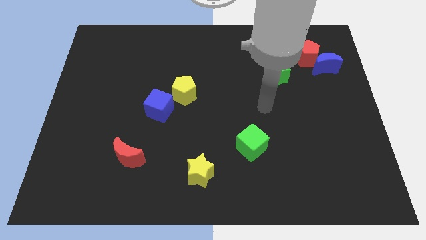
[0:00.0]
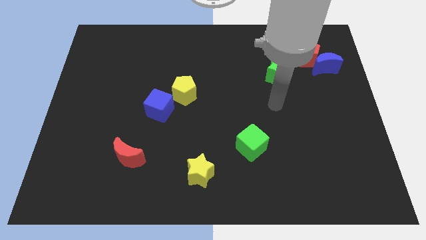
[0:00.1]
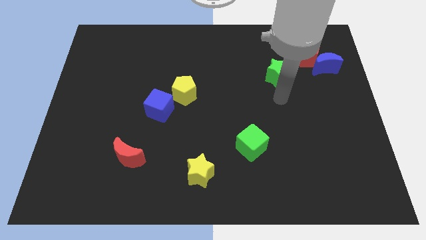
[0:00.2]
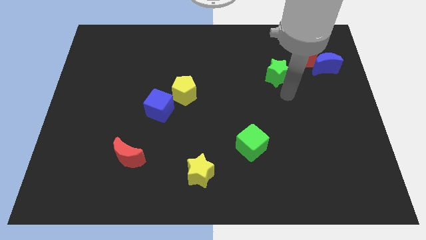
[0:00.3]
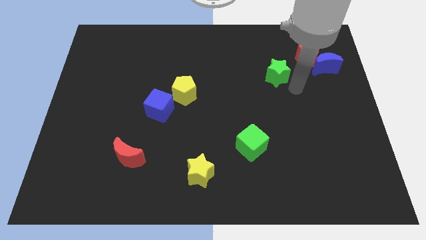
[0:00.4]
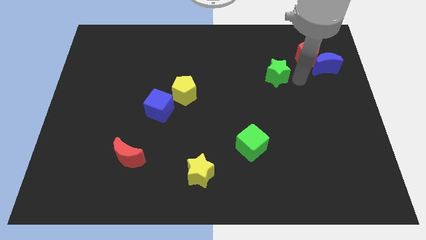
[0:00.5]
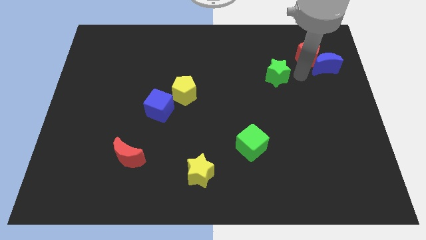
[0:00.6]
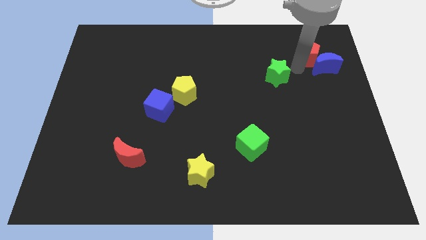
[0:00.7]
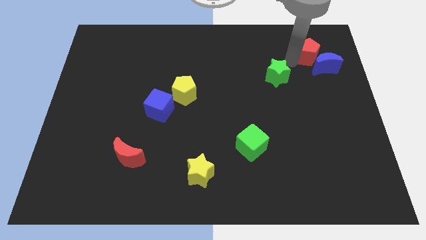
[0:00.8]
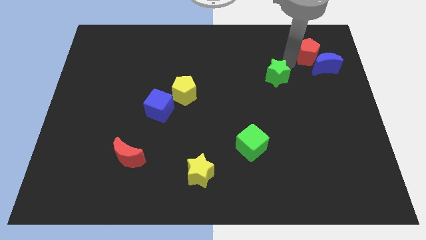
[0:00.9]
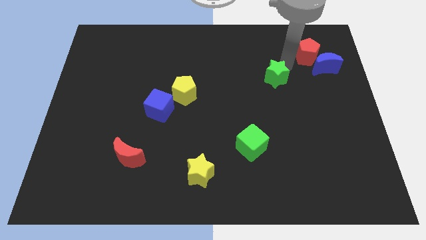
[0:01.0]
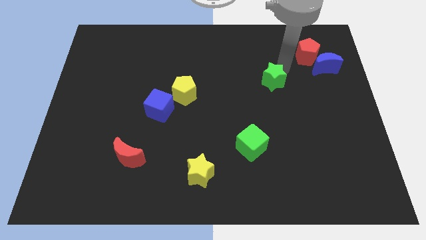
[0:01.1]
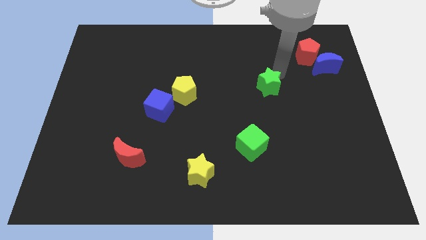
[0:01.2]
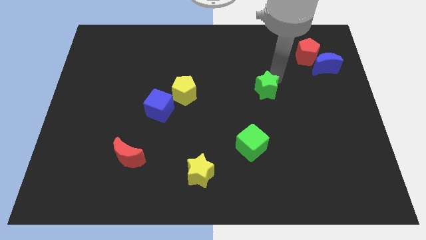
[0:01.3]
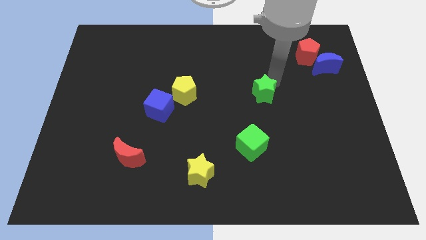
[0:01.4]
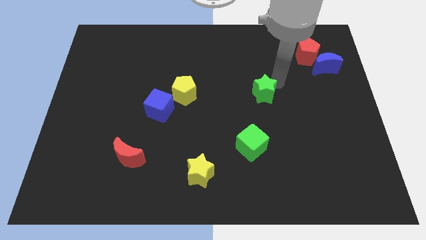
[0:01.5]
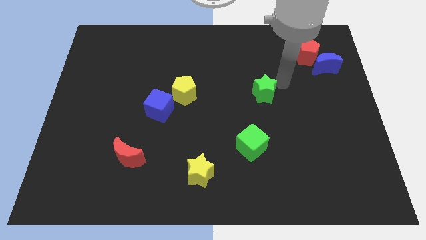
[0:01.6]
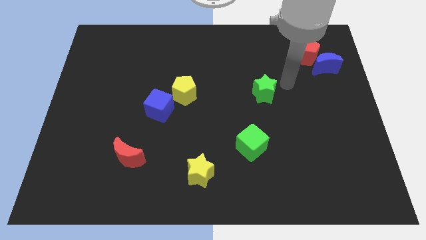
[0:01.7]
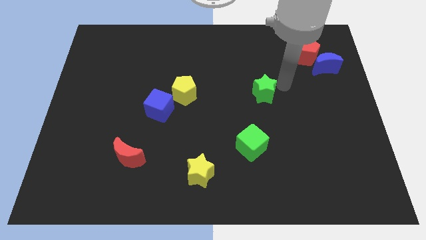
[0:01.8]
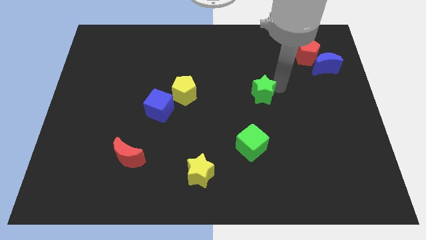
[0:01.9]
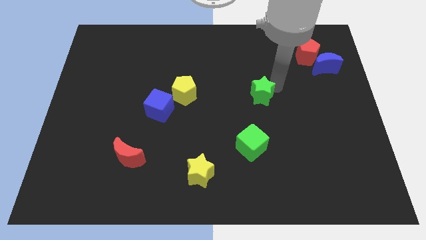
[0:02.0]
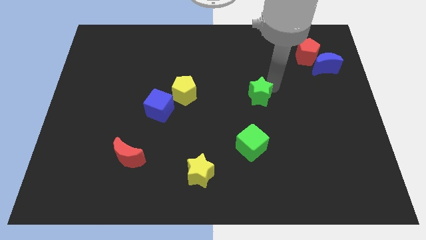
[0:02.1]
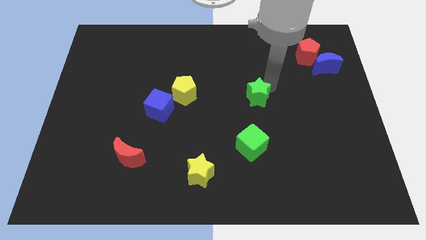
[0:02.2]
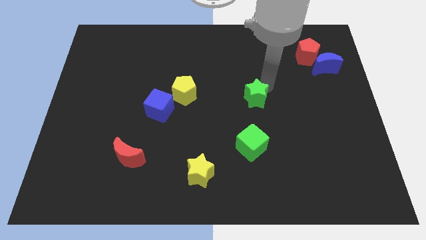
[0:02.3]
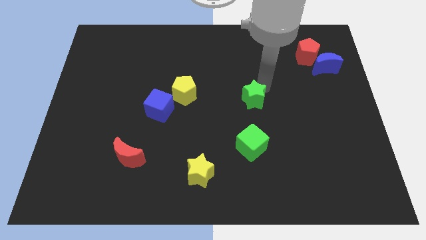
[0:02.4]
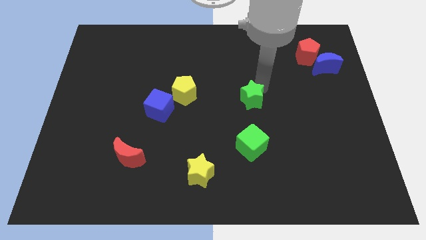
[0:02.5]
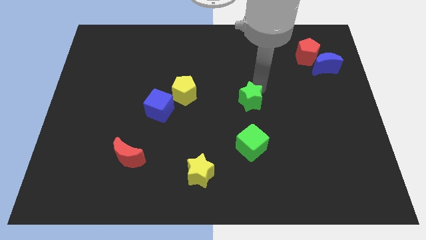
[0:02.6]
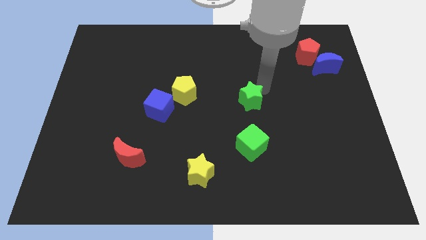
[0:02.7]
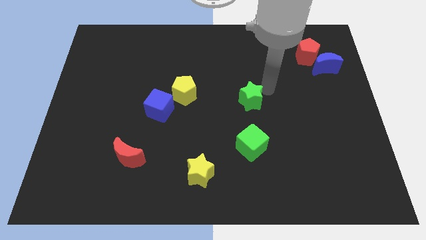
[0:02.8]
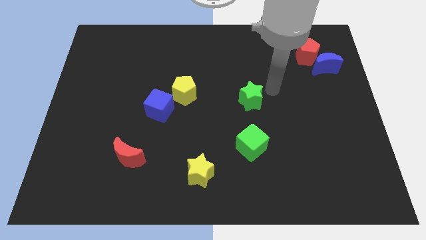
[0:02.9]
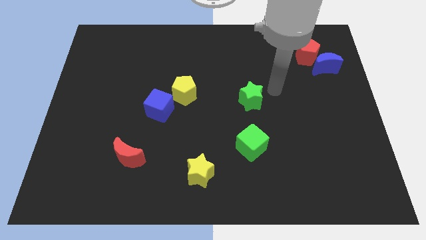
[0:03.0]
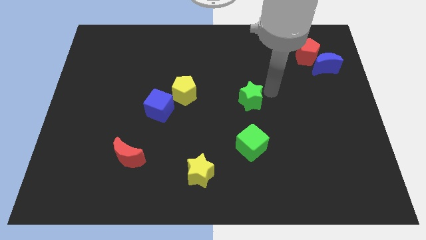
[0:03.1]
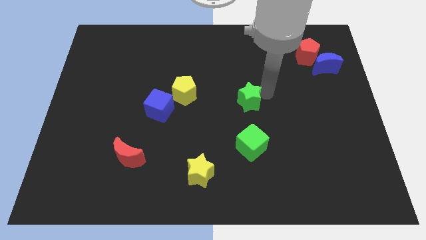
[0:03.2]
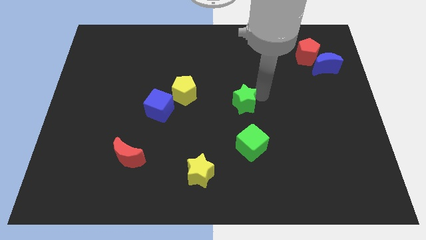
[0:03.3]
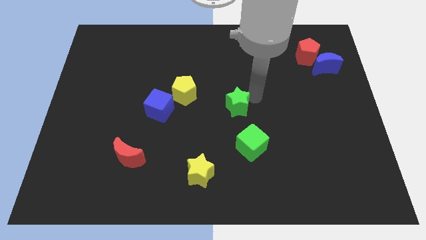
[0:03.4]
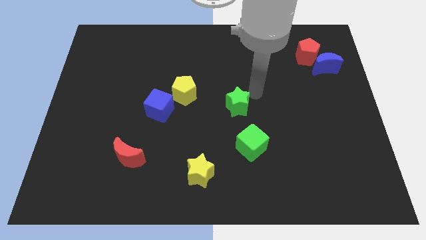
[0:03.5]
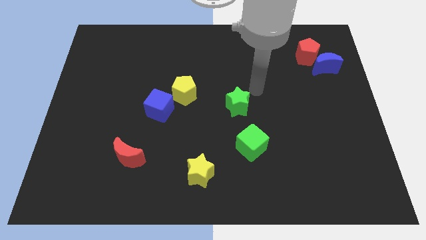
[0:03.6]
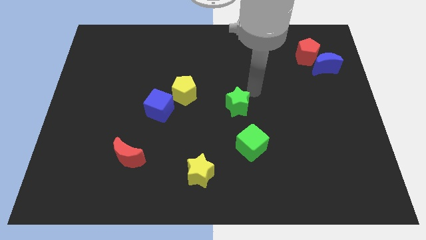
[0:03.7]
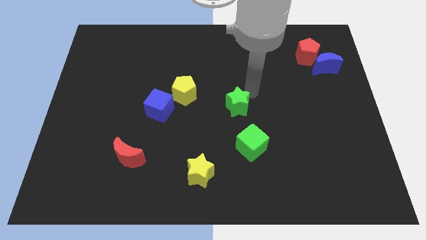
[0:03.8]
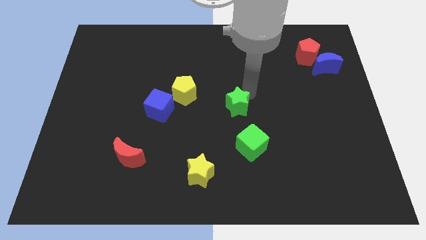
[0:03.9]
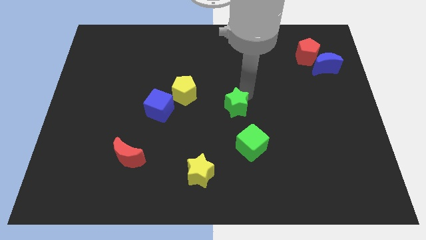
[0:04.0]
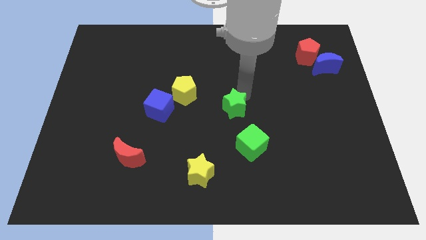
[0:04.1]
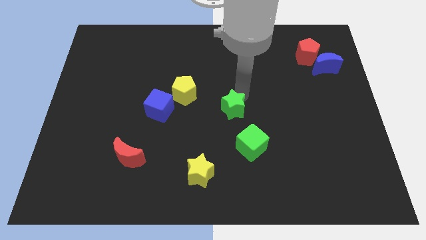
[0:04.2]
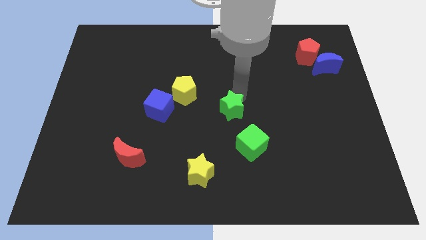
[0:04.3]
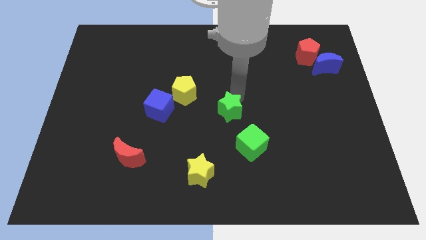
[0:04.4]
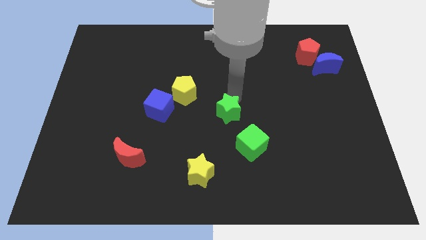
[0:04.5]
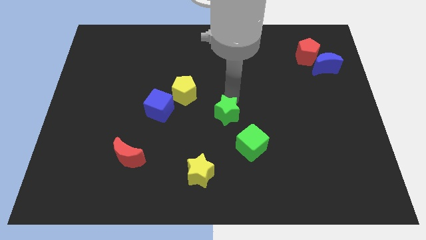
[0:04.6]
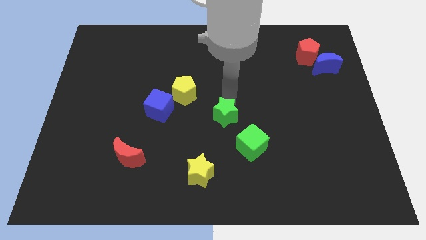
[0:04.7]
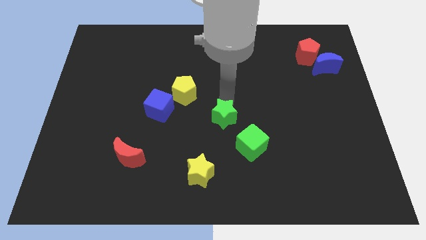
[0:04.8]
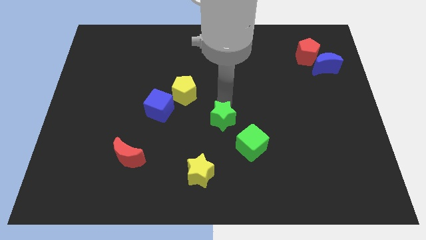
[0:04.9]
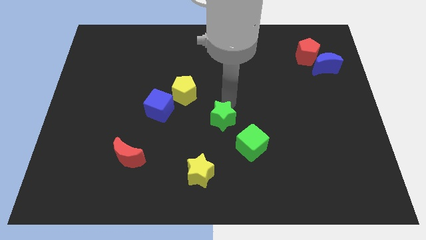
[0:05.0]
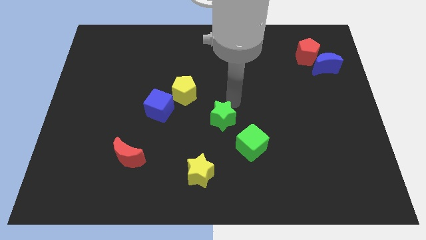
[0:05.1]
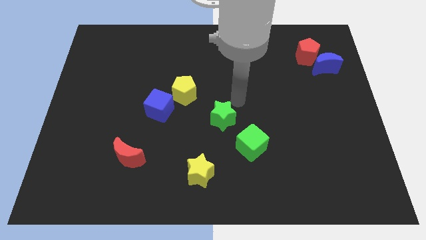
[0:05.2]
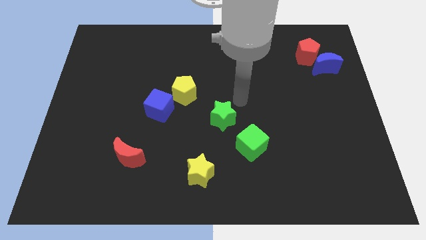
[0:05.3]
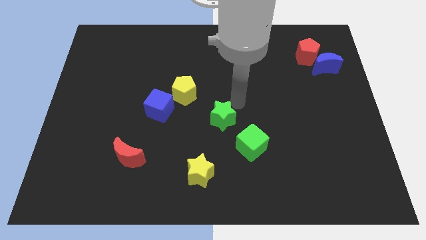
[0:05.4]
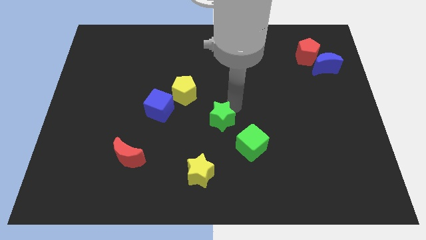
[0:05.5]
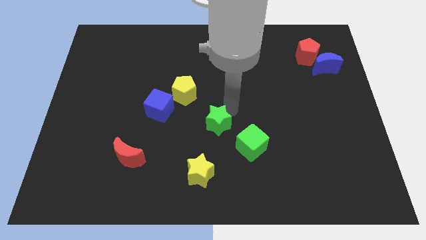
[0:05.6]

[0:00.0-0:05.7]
move the green star down and to the left diagonally

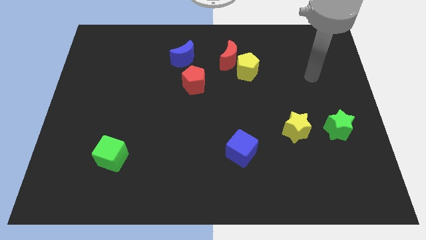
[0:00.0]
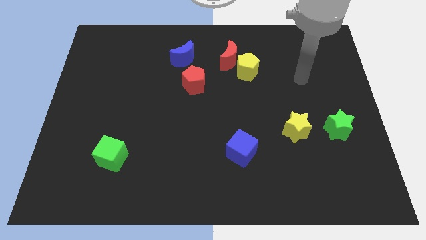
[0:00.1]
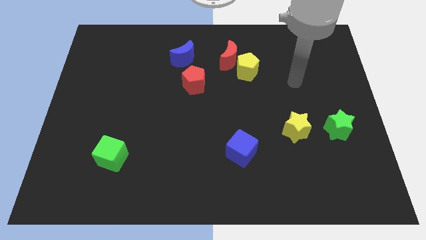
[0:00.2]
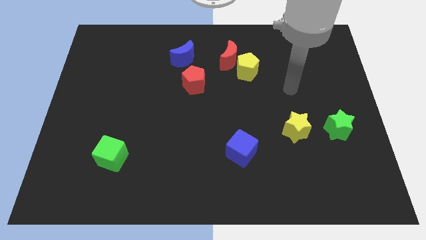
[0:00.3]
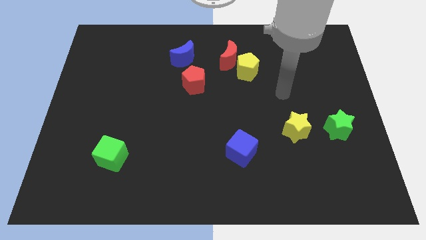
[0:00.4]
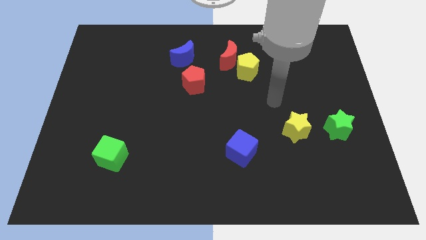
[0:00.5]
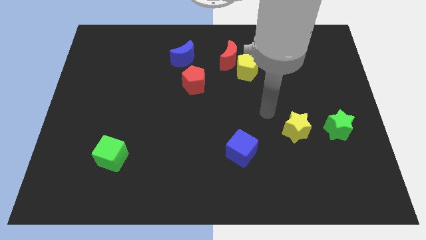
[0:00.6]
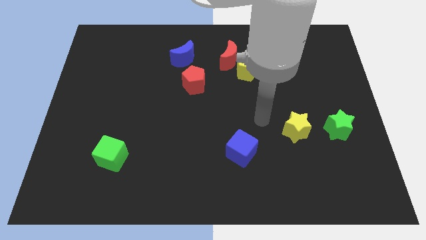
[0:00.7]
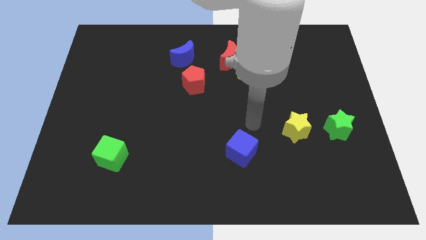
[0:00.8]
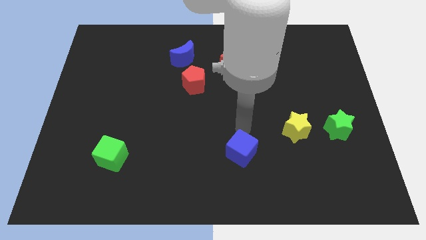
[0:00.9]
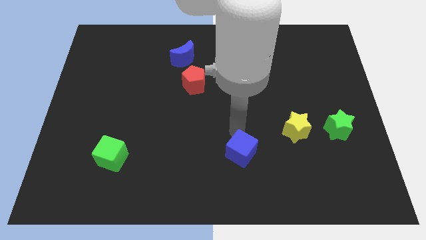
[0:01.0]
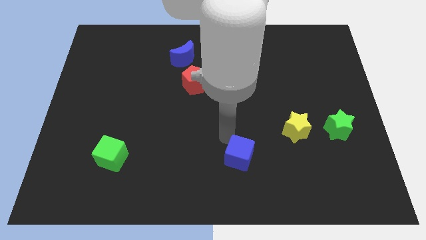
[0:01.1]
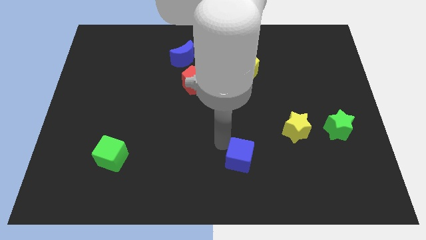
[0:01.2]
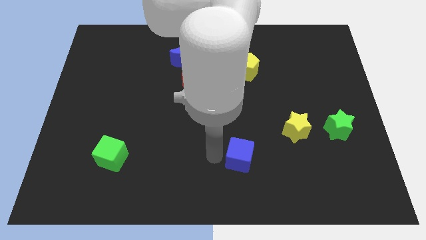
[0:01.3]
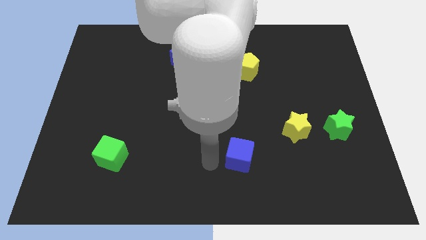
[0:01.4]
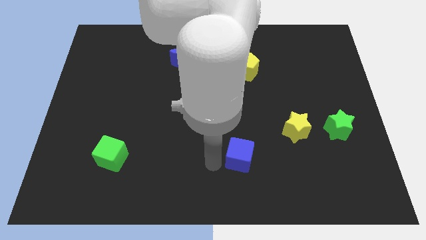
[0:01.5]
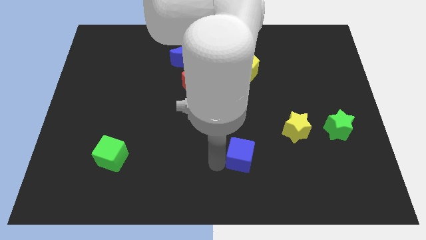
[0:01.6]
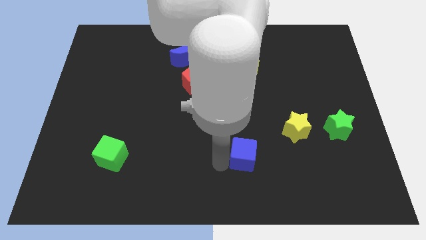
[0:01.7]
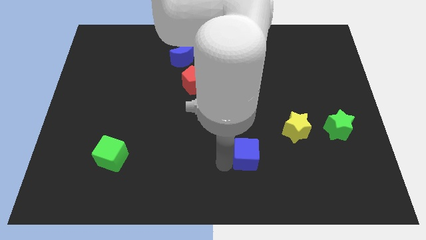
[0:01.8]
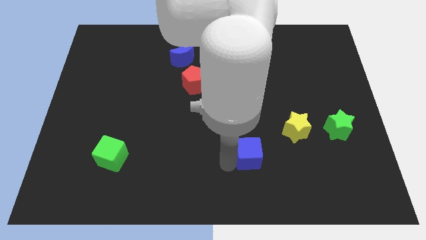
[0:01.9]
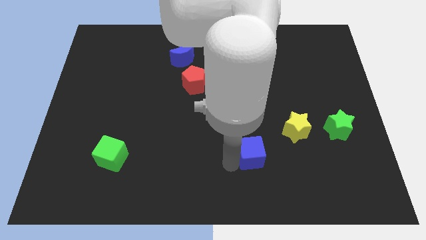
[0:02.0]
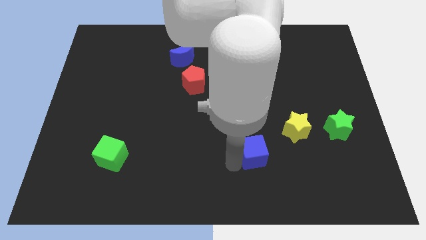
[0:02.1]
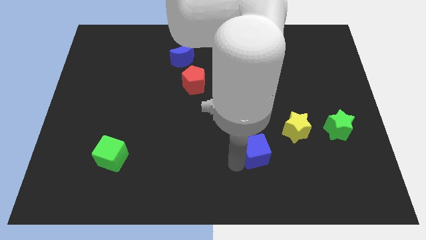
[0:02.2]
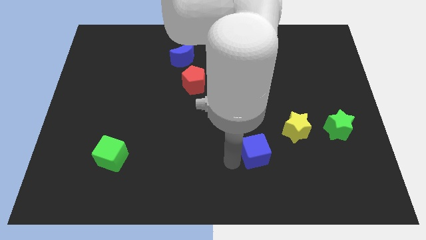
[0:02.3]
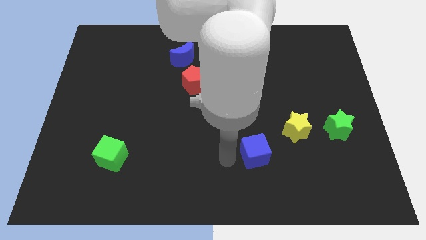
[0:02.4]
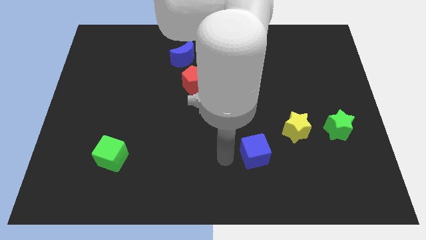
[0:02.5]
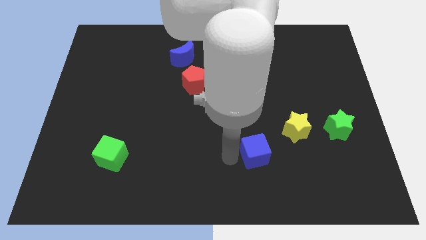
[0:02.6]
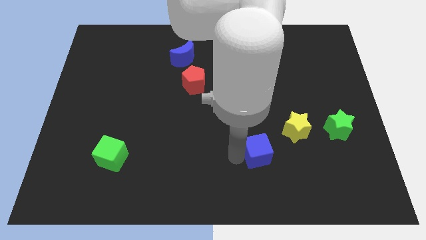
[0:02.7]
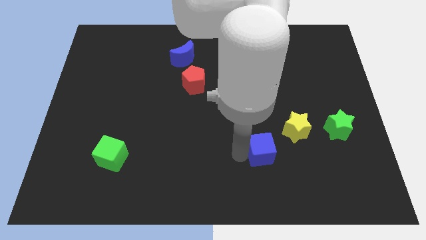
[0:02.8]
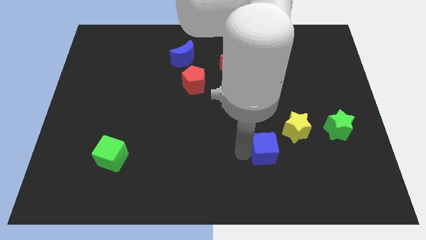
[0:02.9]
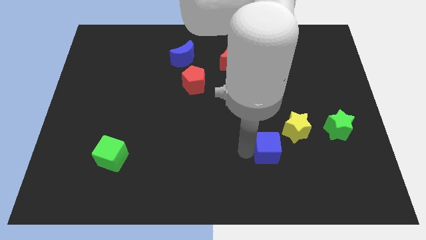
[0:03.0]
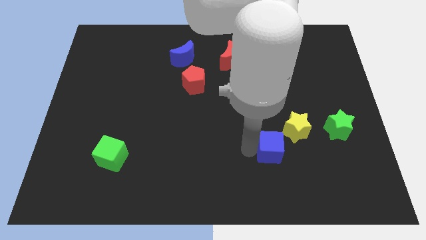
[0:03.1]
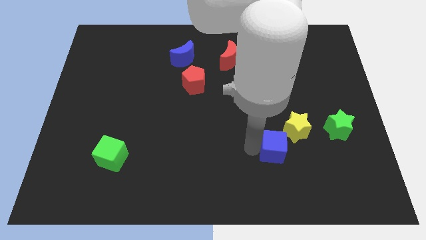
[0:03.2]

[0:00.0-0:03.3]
push the blue cube right slightly
